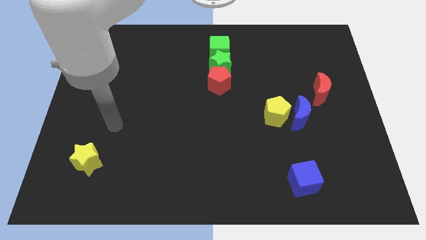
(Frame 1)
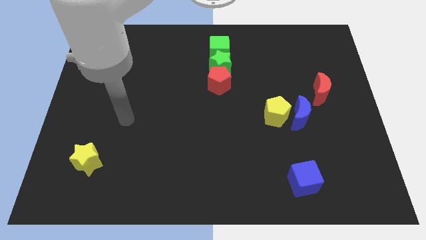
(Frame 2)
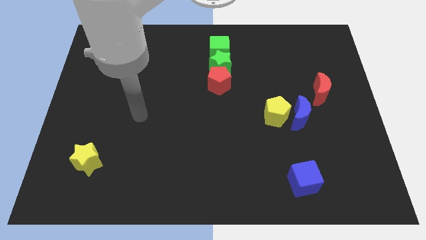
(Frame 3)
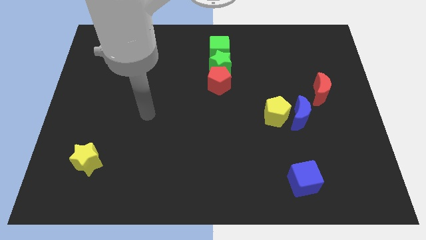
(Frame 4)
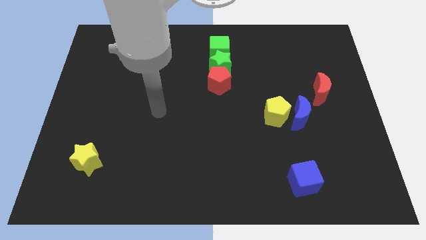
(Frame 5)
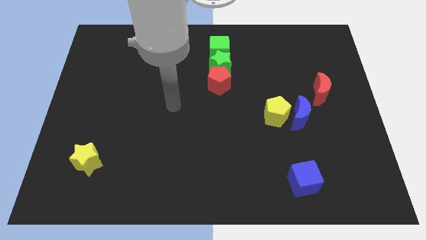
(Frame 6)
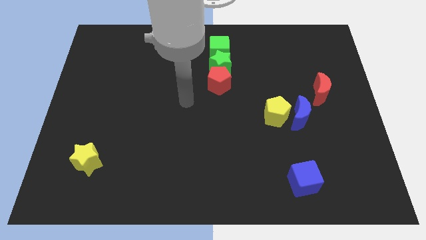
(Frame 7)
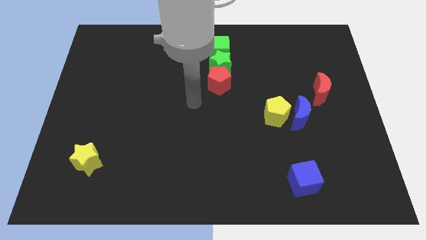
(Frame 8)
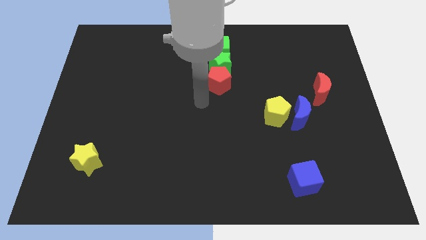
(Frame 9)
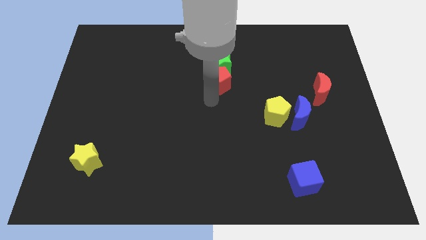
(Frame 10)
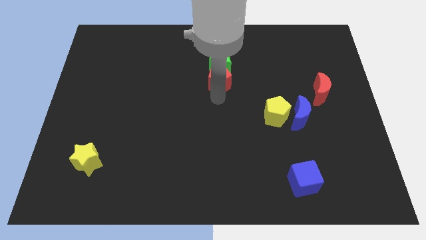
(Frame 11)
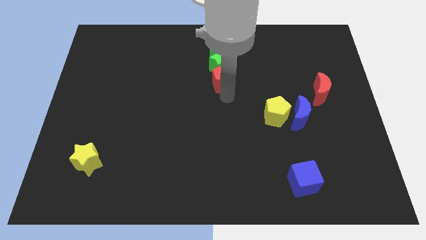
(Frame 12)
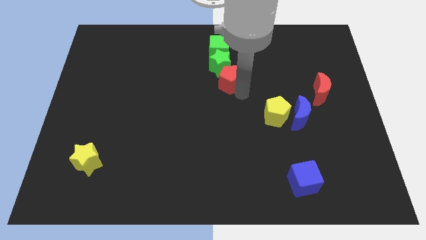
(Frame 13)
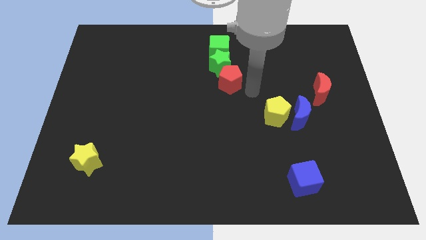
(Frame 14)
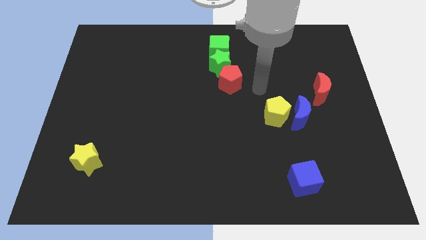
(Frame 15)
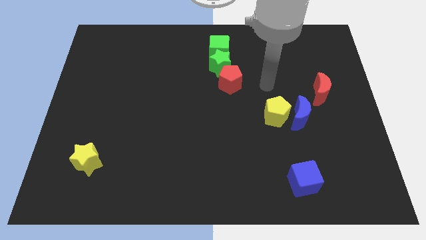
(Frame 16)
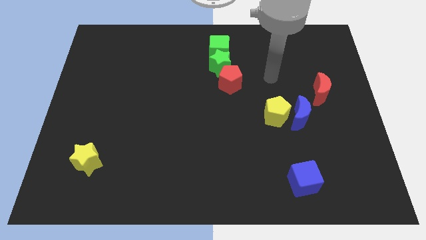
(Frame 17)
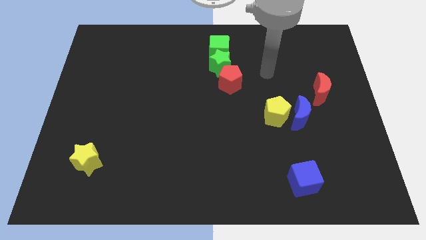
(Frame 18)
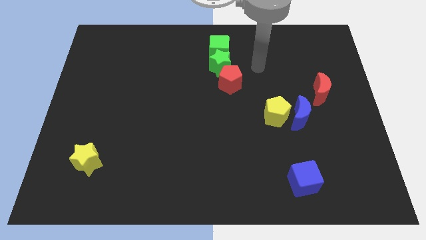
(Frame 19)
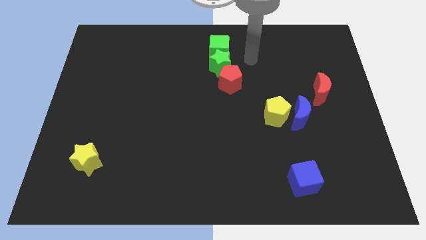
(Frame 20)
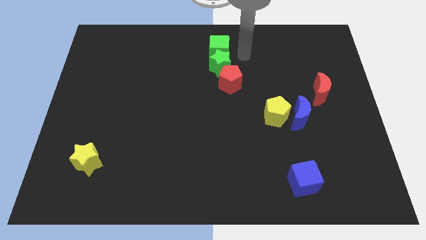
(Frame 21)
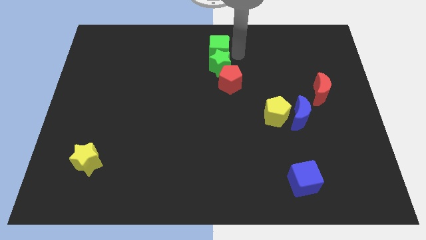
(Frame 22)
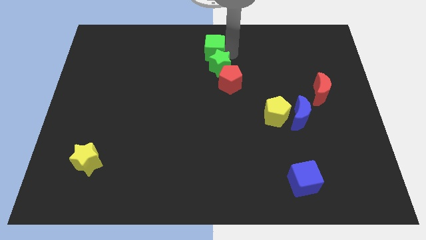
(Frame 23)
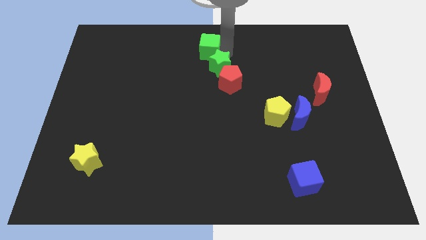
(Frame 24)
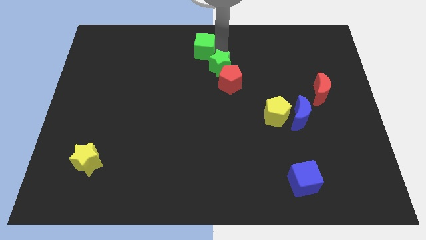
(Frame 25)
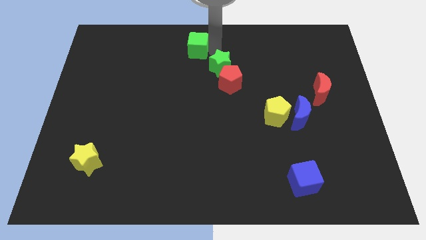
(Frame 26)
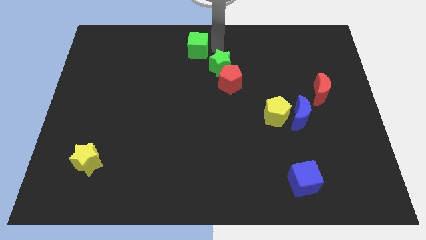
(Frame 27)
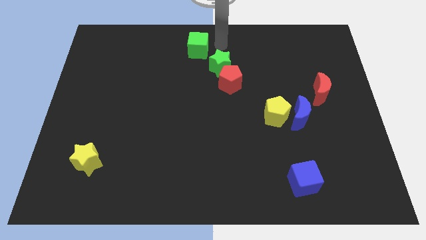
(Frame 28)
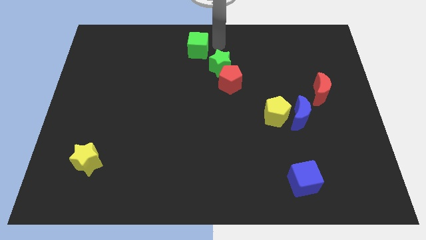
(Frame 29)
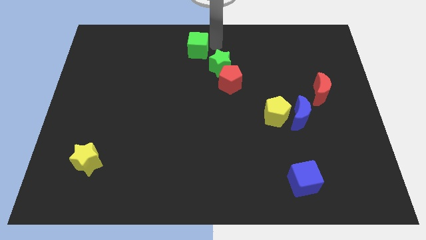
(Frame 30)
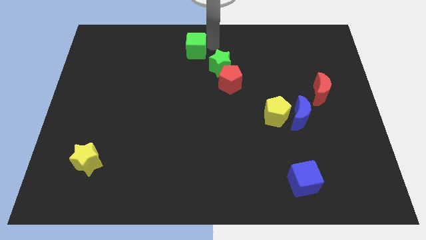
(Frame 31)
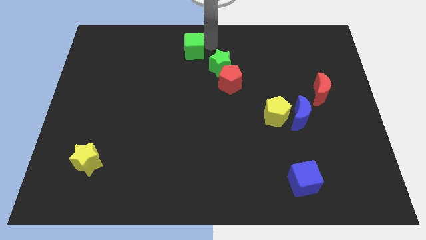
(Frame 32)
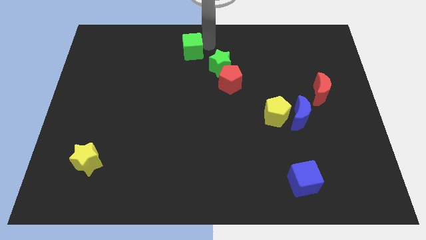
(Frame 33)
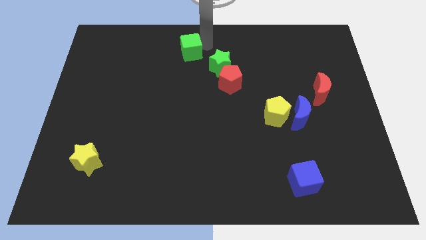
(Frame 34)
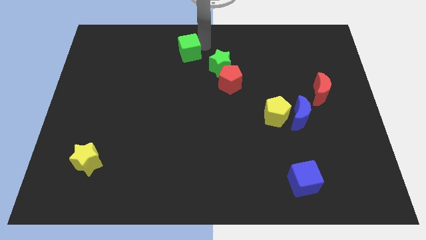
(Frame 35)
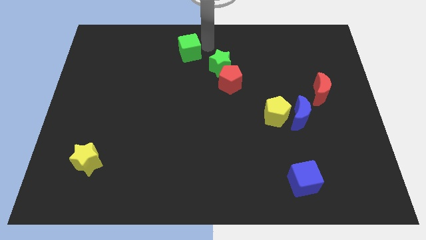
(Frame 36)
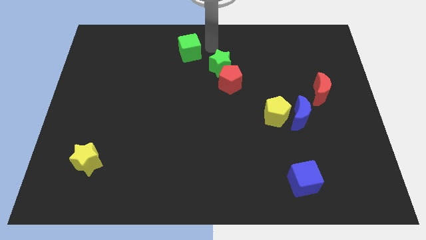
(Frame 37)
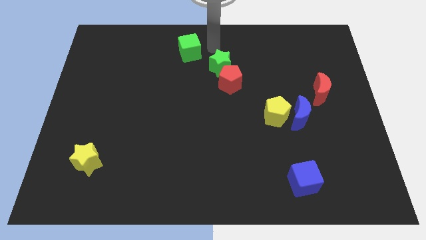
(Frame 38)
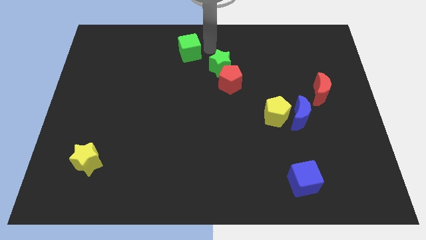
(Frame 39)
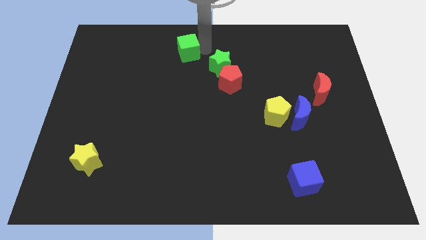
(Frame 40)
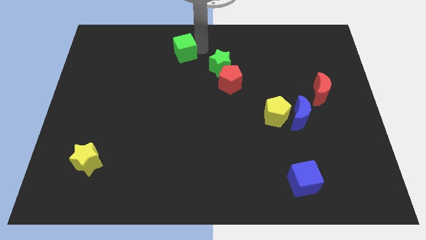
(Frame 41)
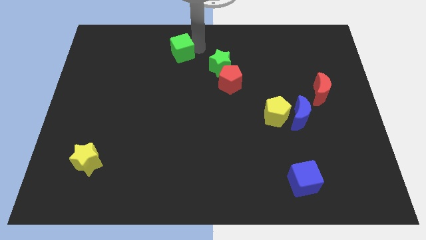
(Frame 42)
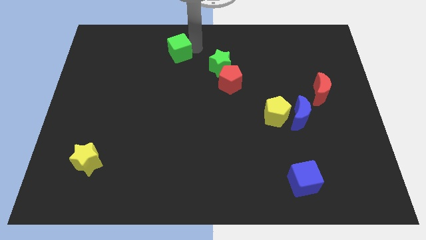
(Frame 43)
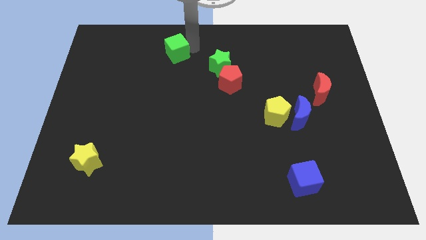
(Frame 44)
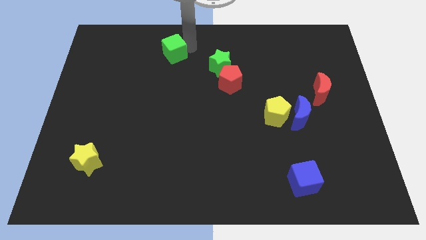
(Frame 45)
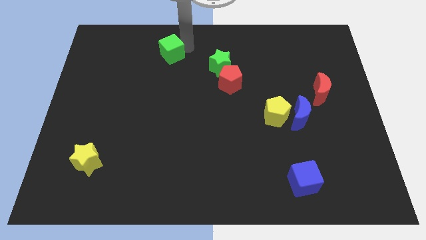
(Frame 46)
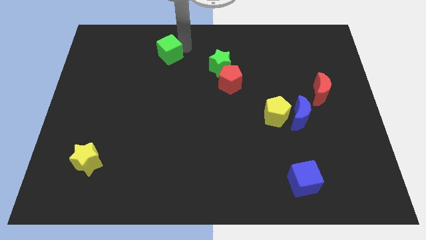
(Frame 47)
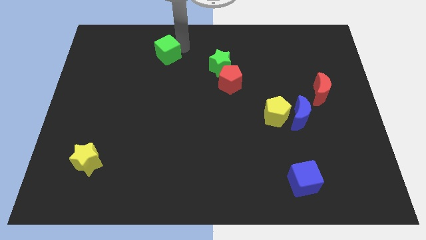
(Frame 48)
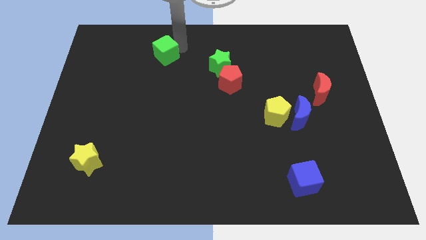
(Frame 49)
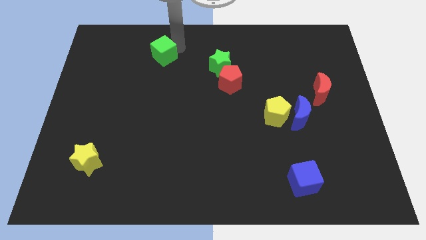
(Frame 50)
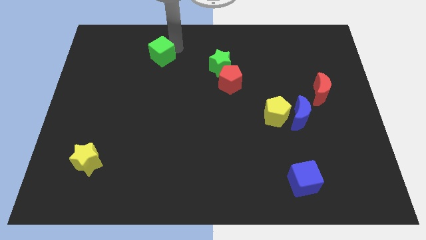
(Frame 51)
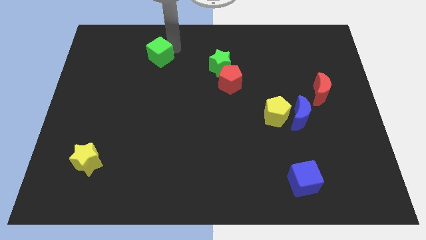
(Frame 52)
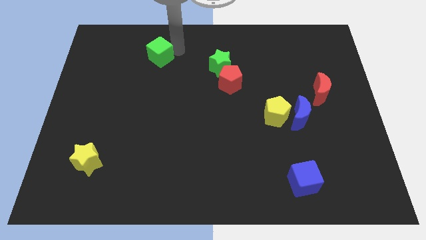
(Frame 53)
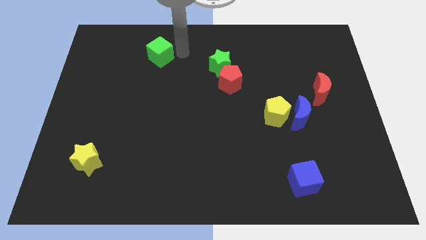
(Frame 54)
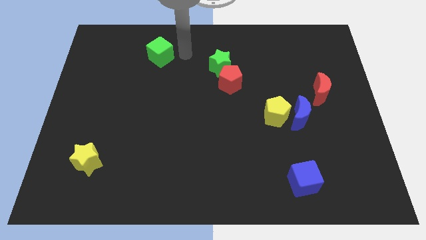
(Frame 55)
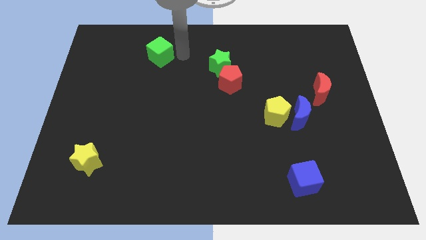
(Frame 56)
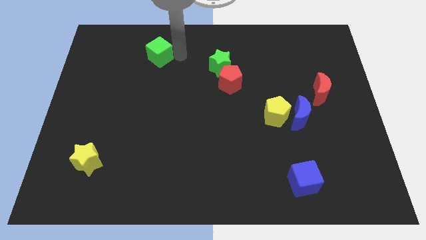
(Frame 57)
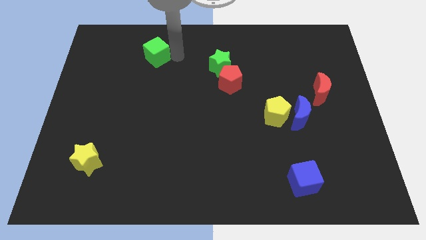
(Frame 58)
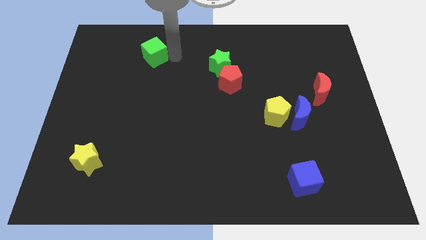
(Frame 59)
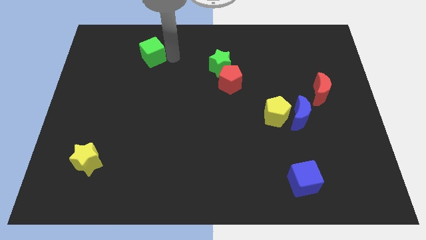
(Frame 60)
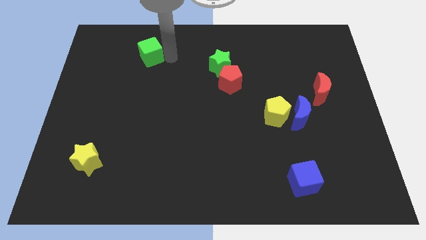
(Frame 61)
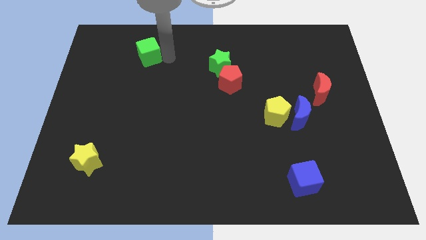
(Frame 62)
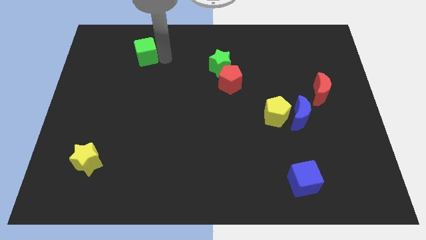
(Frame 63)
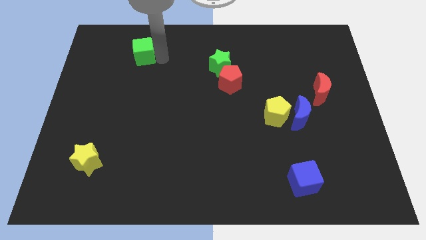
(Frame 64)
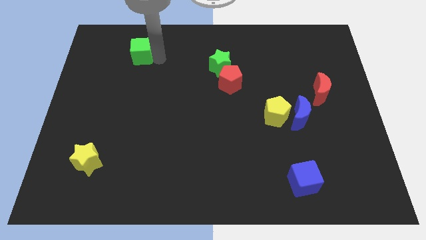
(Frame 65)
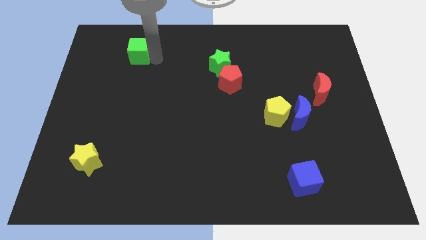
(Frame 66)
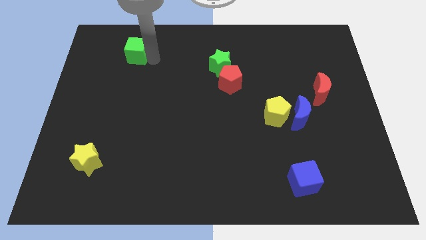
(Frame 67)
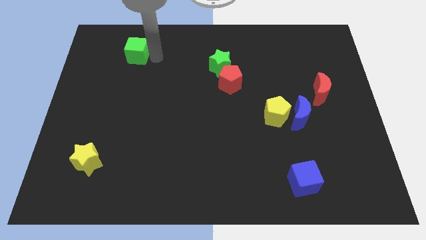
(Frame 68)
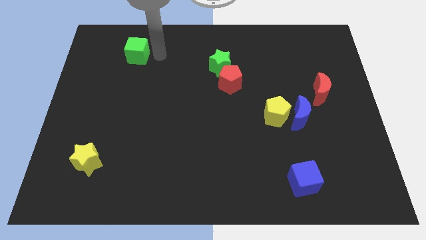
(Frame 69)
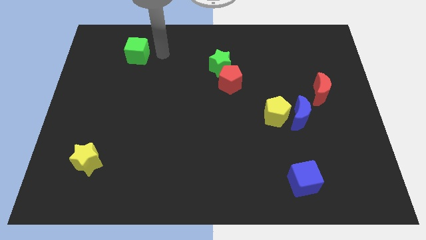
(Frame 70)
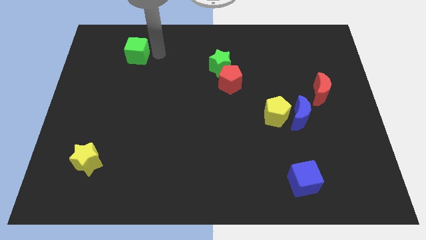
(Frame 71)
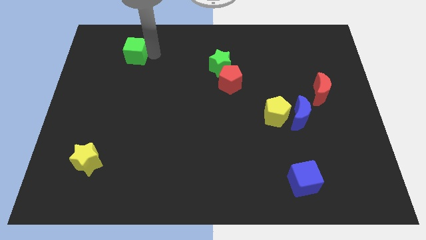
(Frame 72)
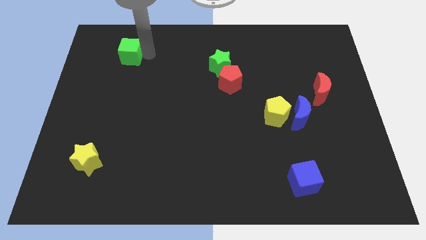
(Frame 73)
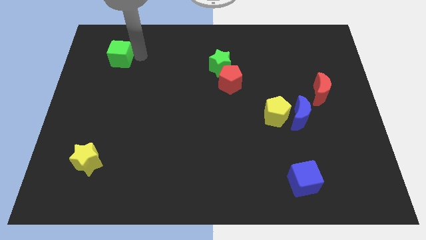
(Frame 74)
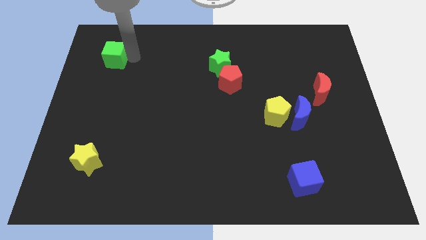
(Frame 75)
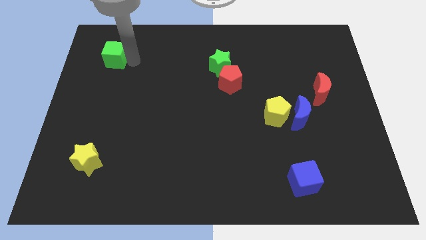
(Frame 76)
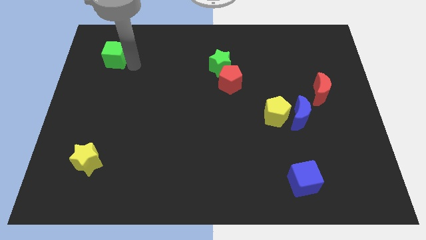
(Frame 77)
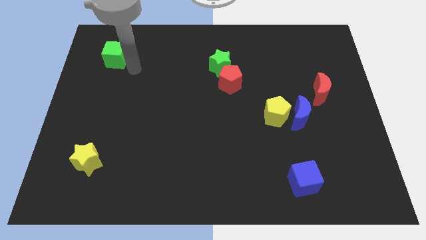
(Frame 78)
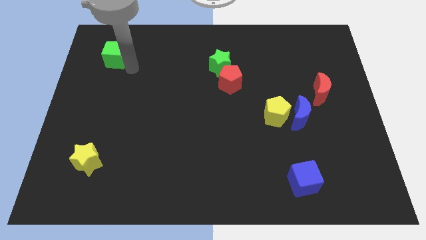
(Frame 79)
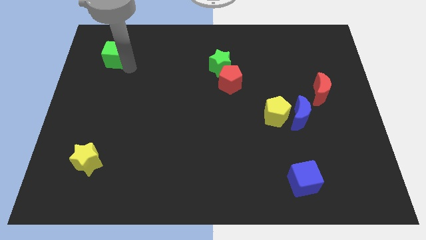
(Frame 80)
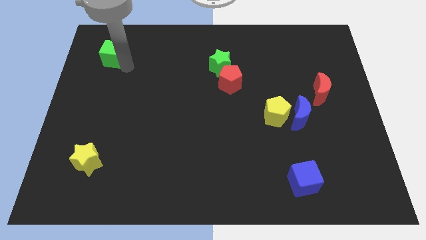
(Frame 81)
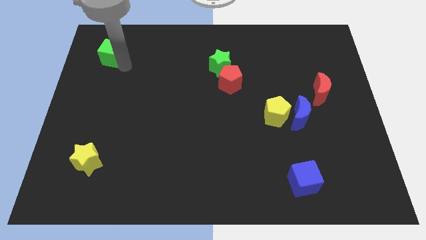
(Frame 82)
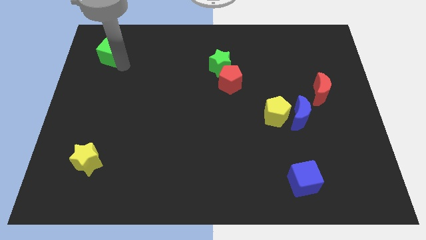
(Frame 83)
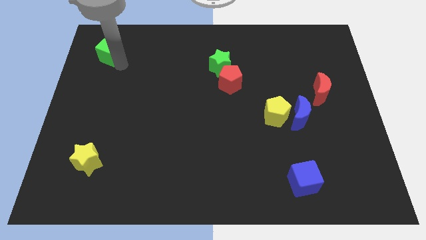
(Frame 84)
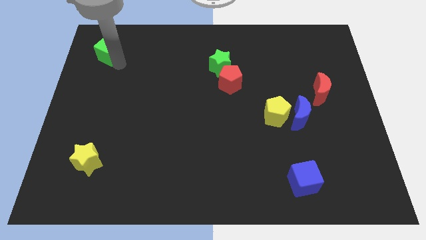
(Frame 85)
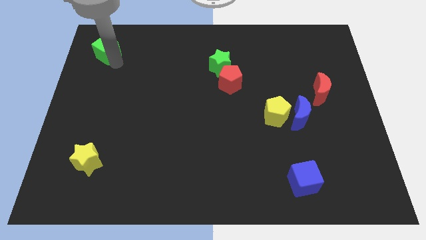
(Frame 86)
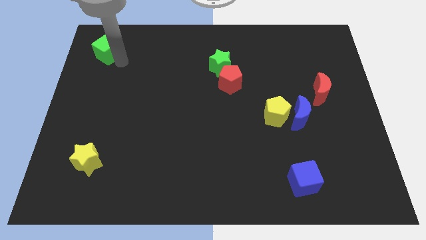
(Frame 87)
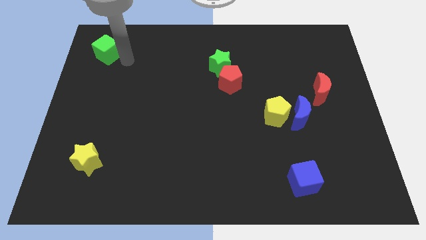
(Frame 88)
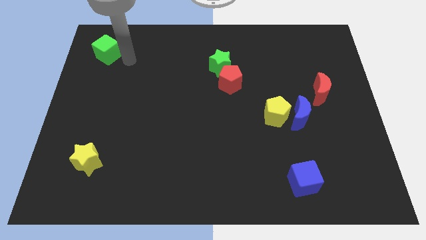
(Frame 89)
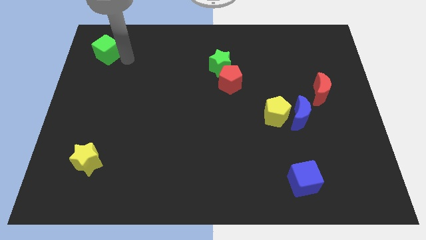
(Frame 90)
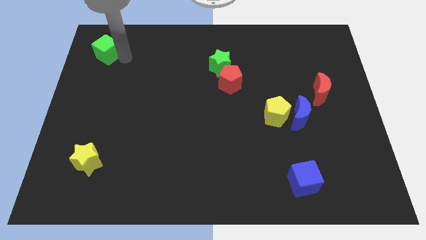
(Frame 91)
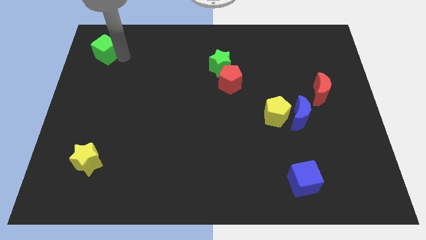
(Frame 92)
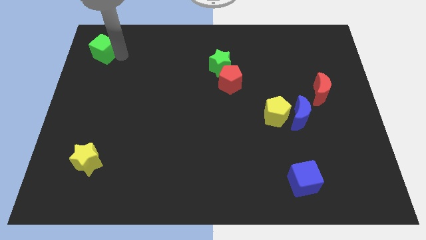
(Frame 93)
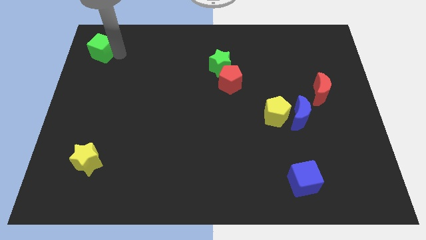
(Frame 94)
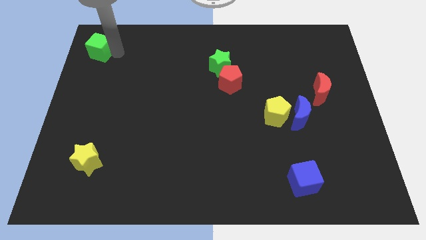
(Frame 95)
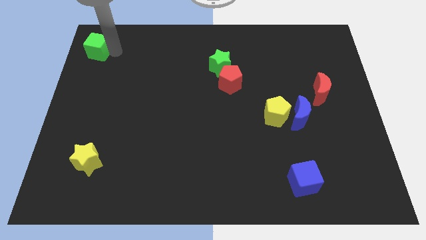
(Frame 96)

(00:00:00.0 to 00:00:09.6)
put the green cube to the top left of the board
